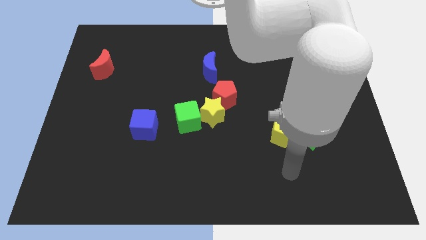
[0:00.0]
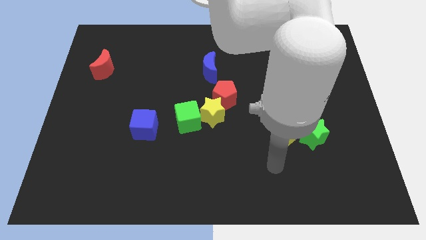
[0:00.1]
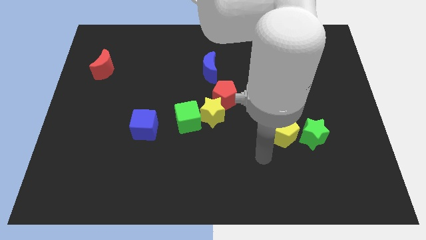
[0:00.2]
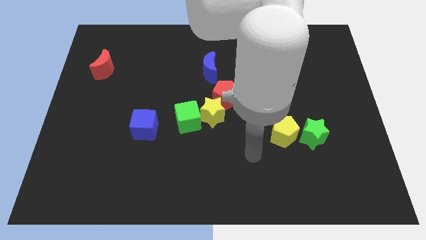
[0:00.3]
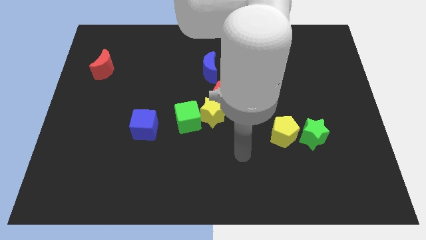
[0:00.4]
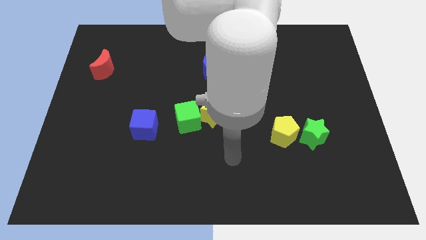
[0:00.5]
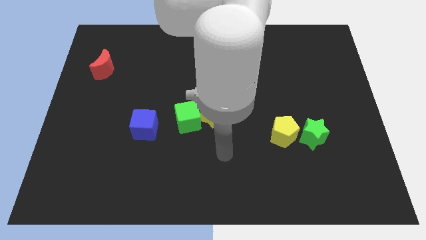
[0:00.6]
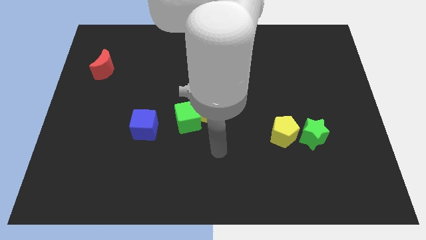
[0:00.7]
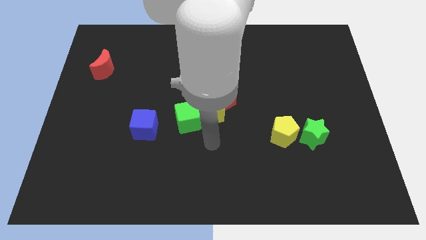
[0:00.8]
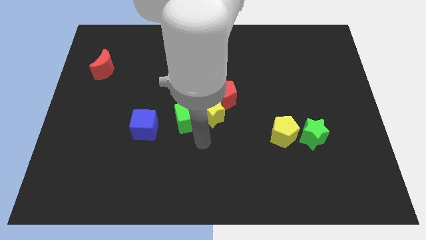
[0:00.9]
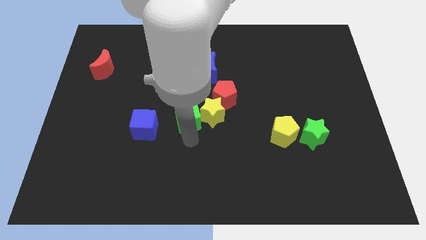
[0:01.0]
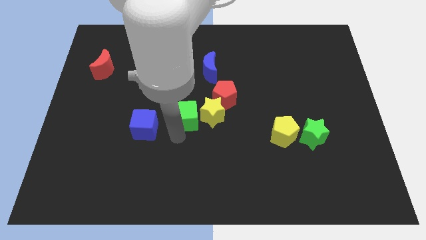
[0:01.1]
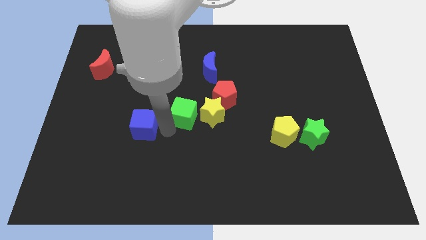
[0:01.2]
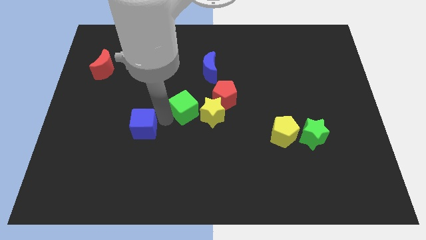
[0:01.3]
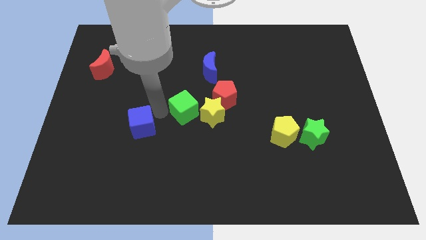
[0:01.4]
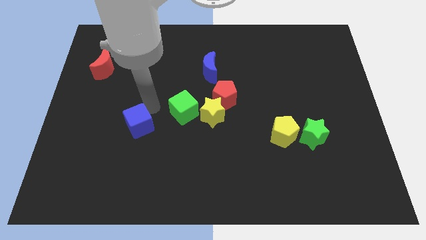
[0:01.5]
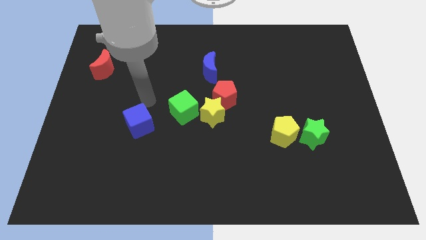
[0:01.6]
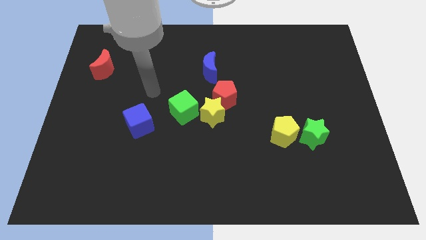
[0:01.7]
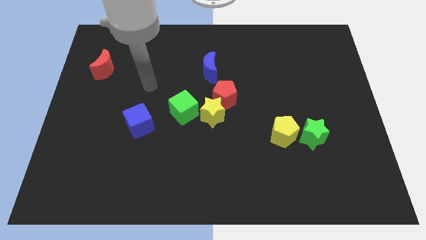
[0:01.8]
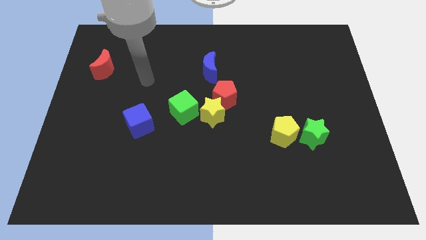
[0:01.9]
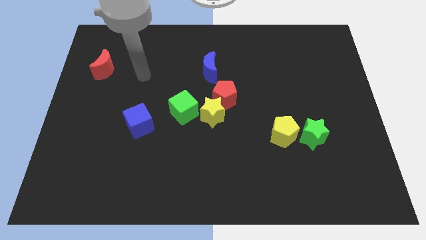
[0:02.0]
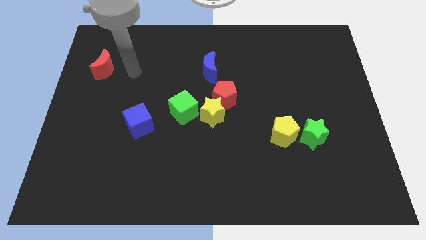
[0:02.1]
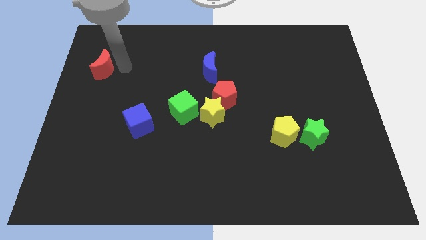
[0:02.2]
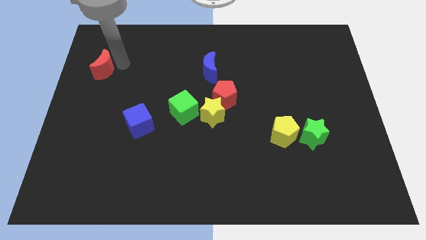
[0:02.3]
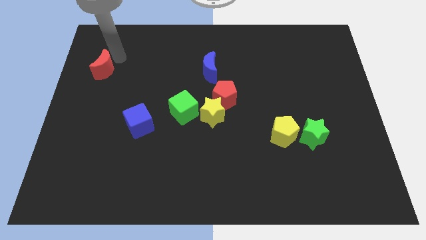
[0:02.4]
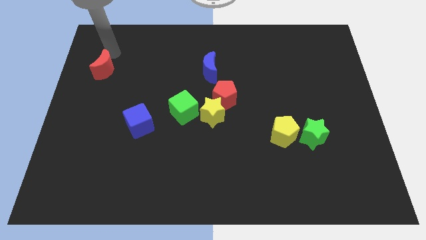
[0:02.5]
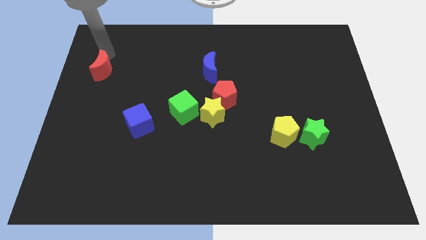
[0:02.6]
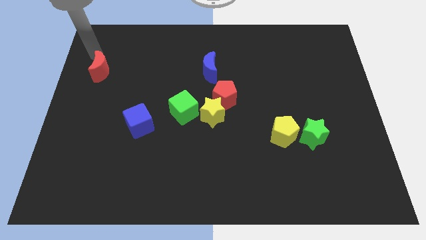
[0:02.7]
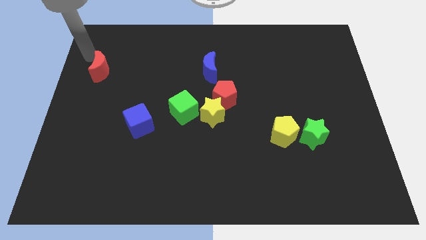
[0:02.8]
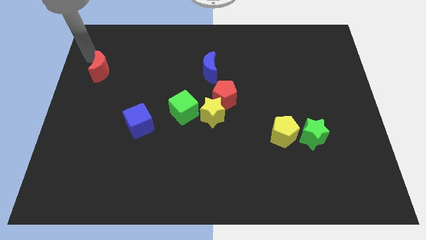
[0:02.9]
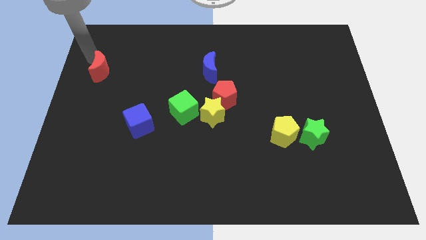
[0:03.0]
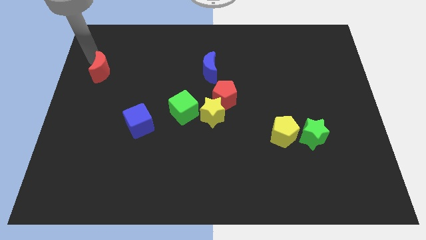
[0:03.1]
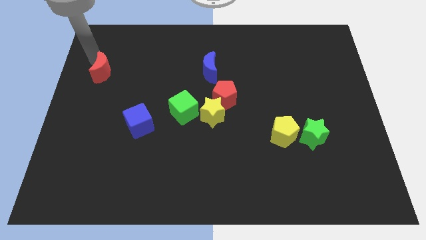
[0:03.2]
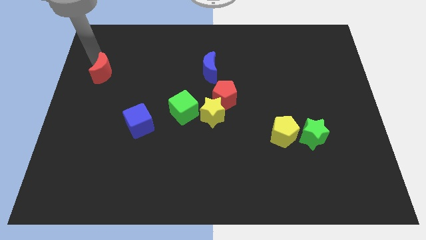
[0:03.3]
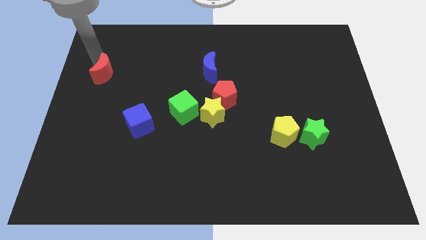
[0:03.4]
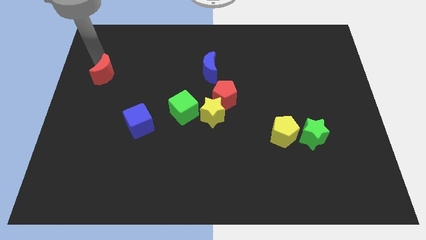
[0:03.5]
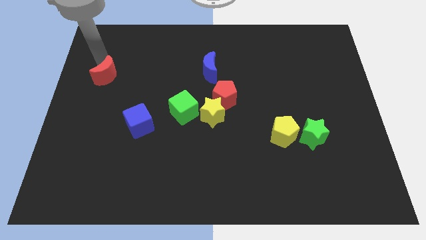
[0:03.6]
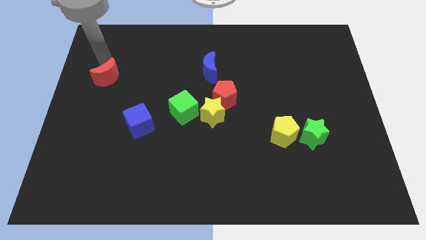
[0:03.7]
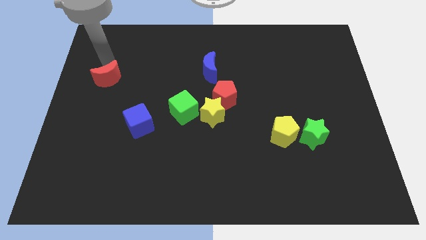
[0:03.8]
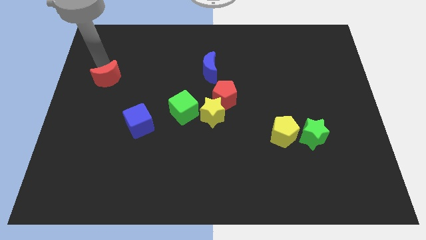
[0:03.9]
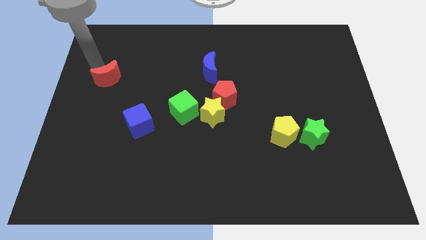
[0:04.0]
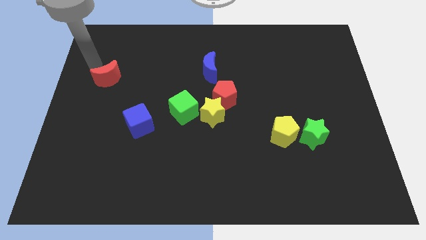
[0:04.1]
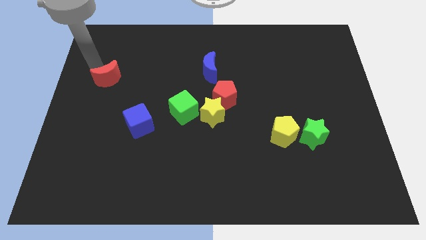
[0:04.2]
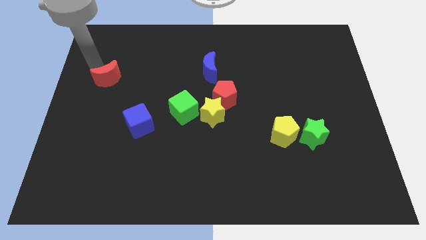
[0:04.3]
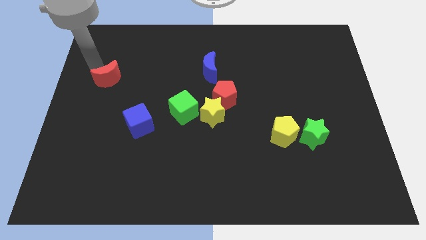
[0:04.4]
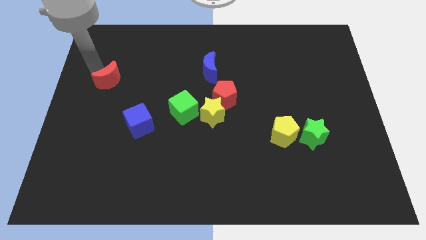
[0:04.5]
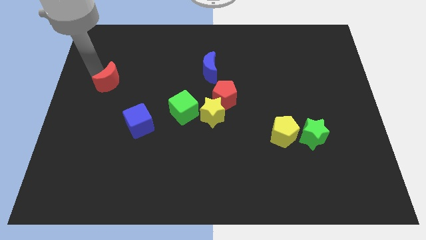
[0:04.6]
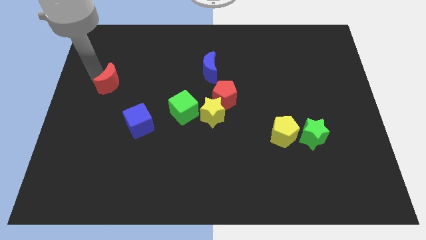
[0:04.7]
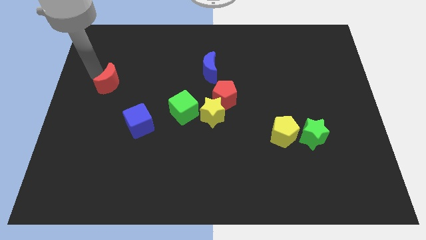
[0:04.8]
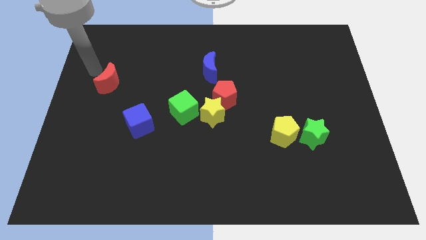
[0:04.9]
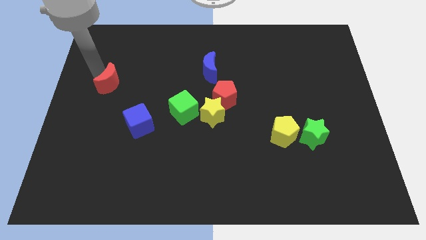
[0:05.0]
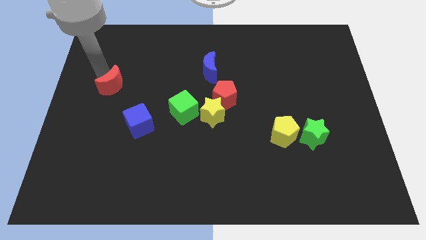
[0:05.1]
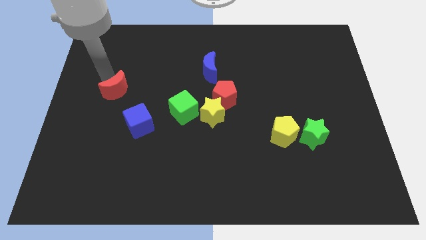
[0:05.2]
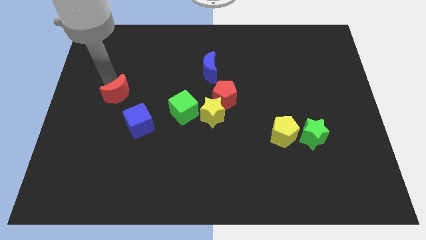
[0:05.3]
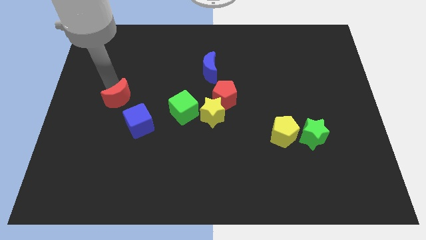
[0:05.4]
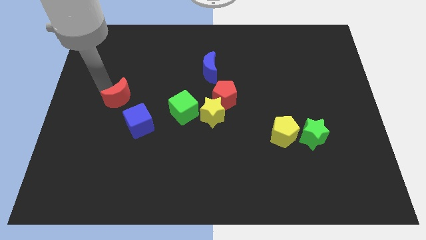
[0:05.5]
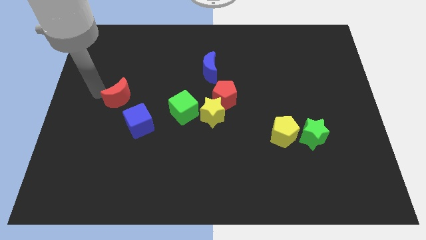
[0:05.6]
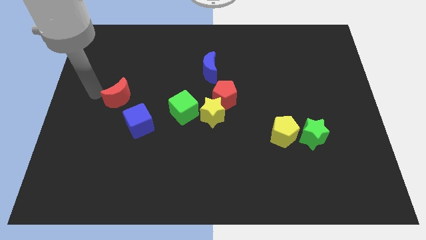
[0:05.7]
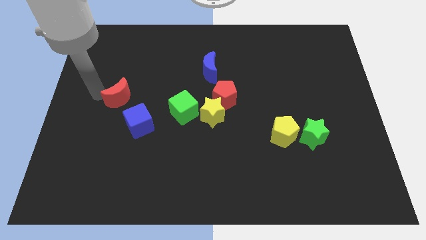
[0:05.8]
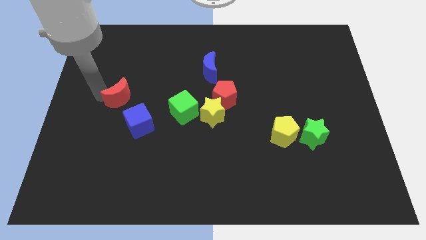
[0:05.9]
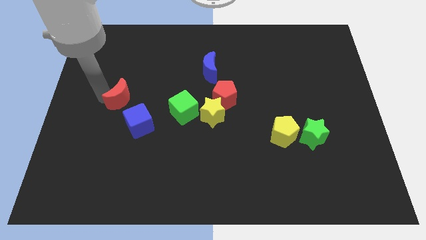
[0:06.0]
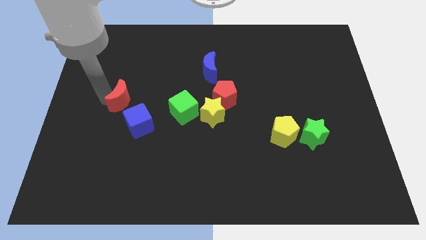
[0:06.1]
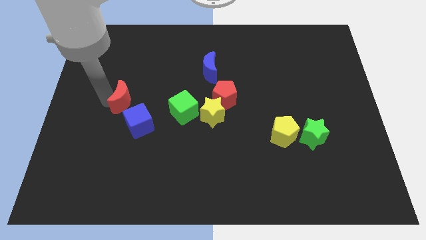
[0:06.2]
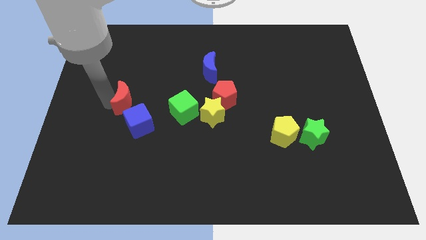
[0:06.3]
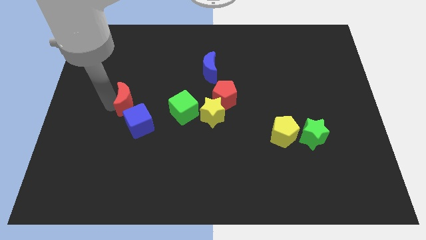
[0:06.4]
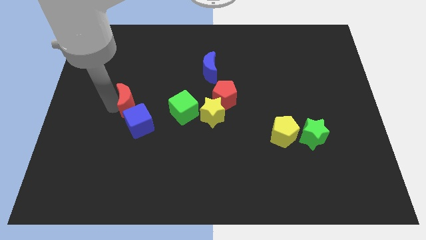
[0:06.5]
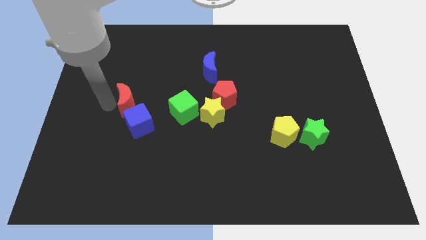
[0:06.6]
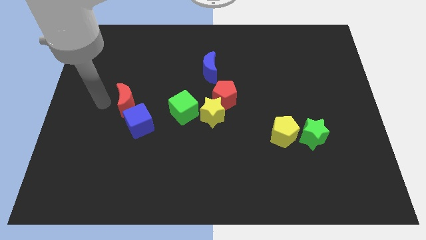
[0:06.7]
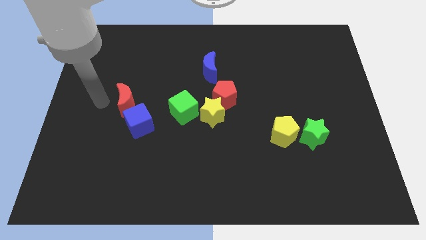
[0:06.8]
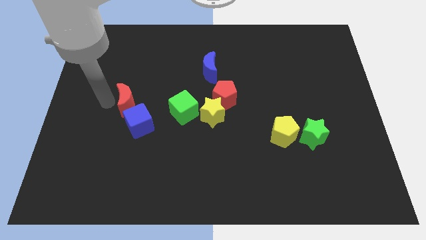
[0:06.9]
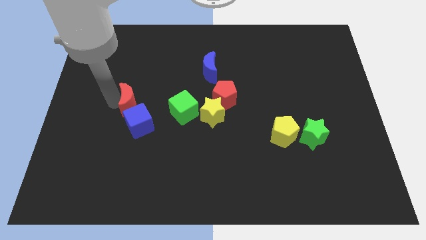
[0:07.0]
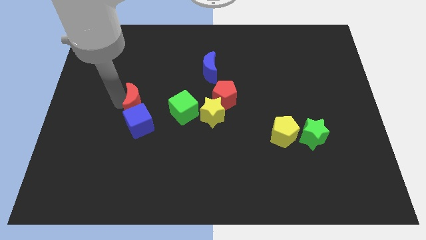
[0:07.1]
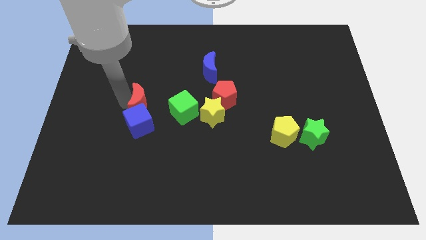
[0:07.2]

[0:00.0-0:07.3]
slide the red moon to the top right of the blue cube
